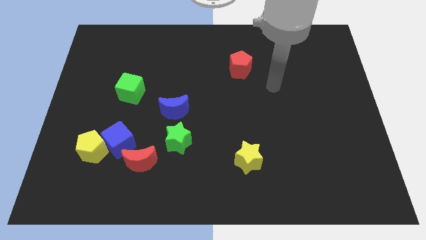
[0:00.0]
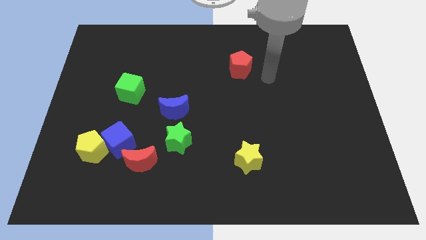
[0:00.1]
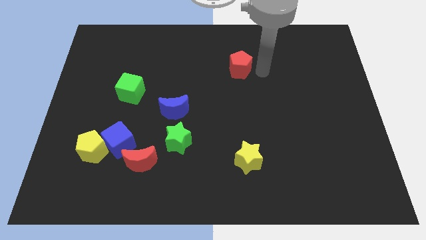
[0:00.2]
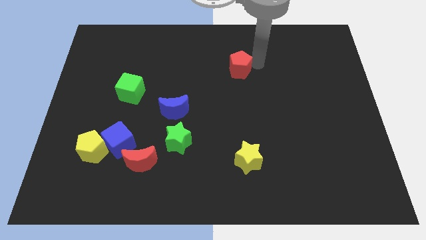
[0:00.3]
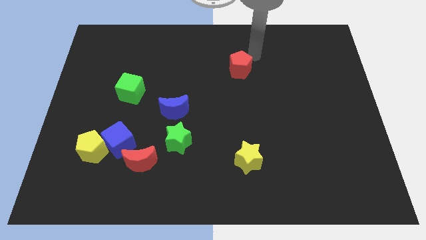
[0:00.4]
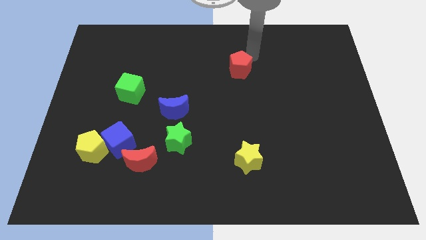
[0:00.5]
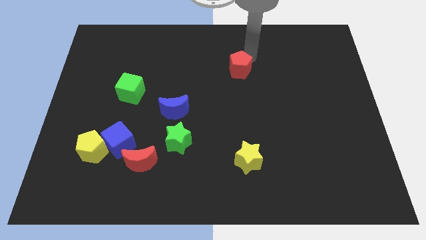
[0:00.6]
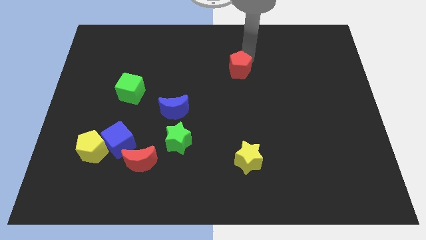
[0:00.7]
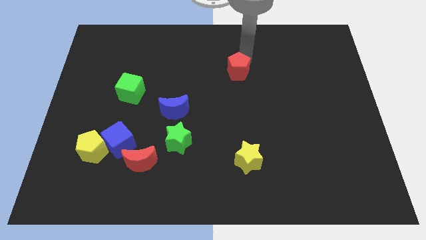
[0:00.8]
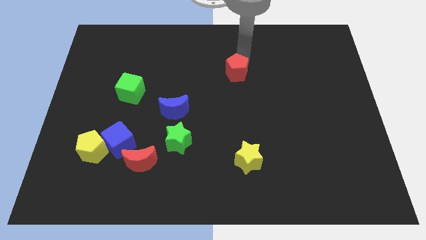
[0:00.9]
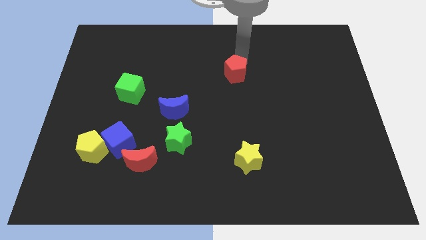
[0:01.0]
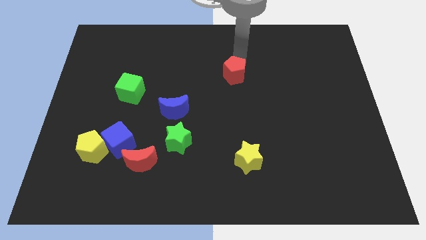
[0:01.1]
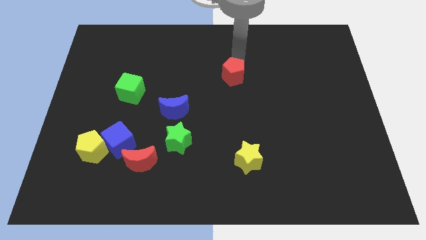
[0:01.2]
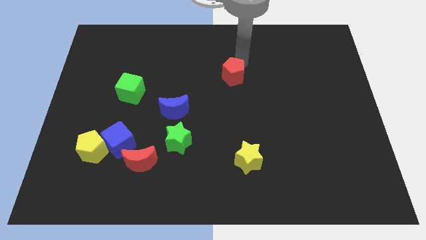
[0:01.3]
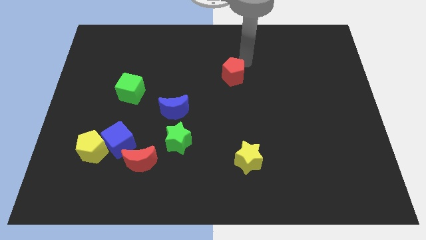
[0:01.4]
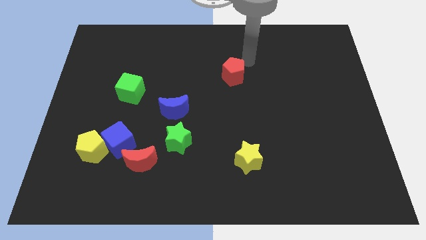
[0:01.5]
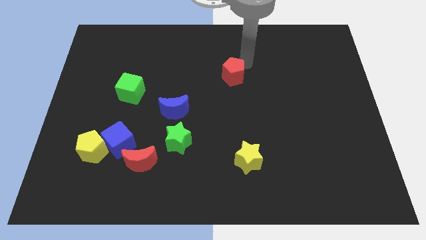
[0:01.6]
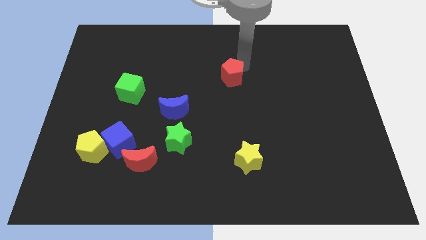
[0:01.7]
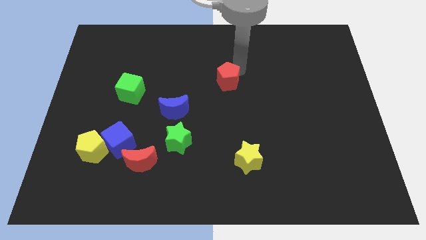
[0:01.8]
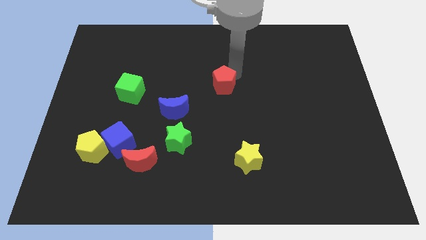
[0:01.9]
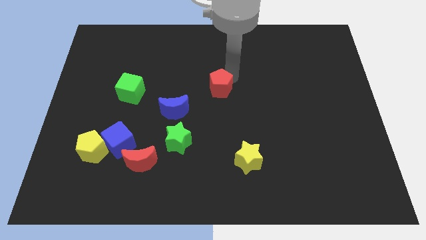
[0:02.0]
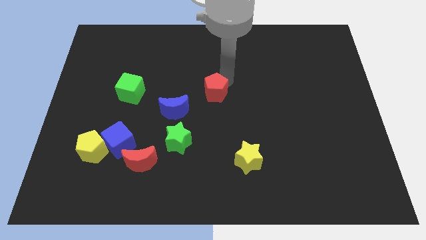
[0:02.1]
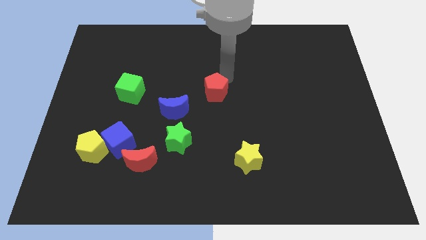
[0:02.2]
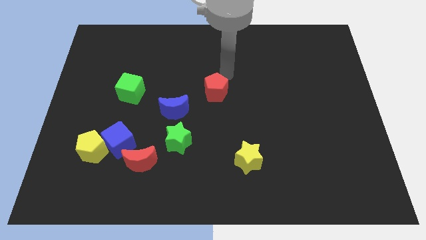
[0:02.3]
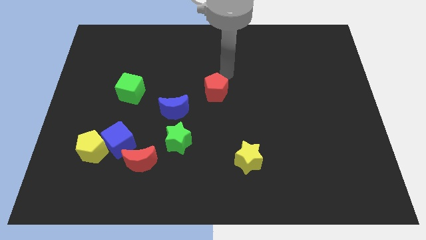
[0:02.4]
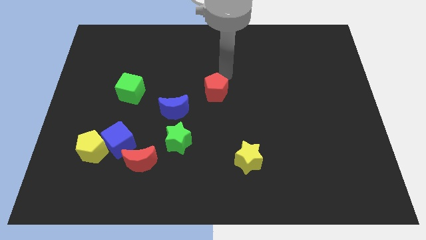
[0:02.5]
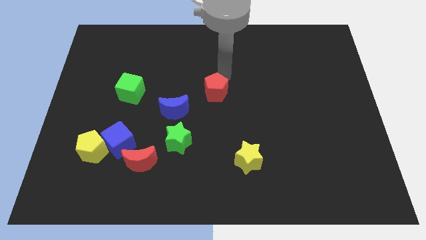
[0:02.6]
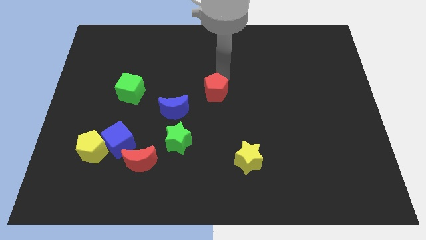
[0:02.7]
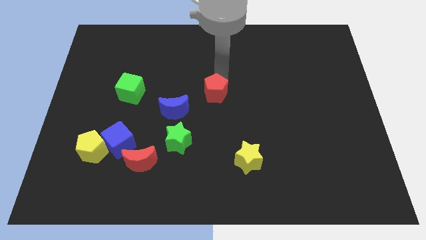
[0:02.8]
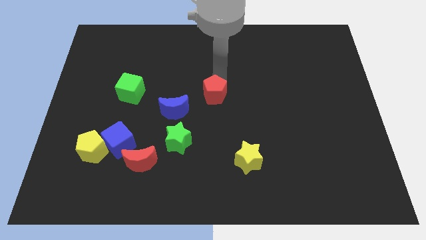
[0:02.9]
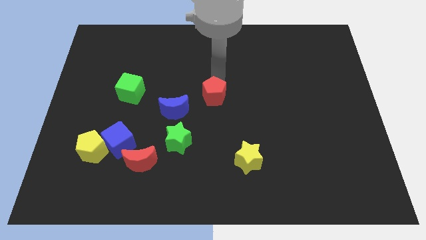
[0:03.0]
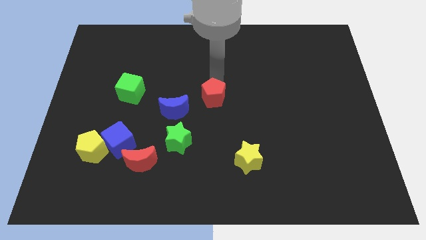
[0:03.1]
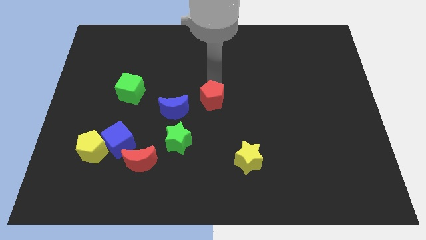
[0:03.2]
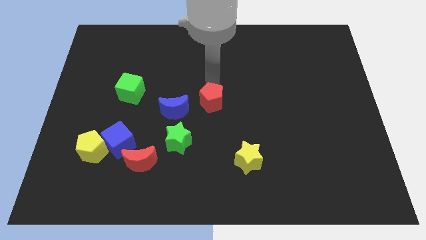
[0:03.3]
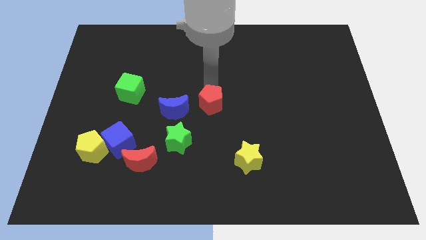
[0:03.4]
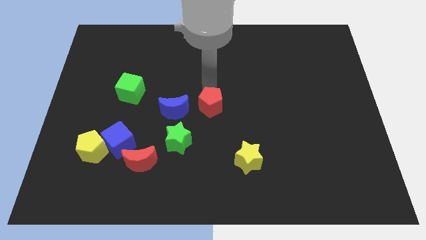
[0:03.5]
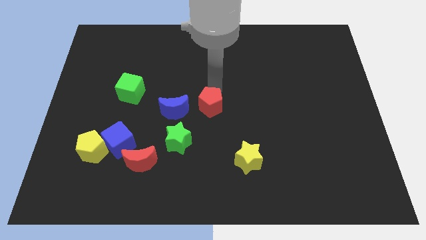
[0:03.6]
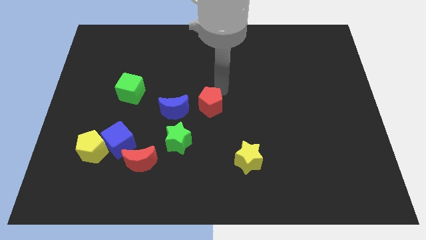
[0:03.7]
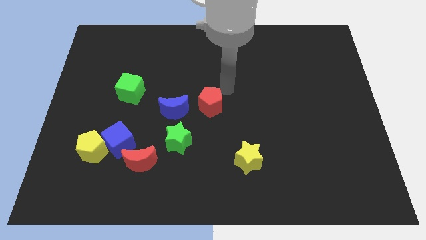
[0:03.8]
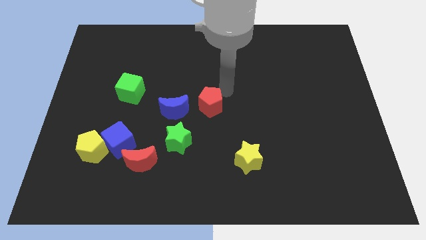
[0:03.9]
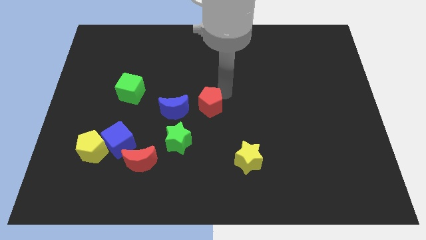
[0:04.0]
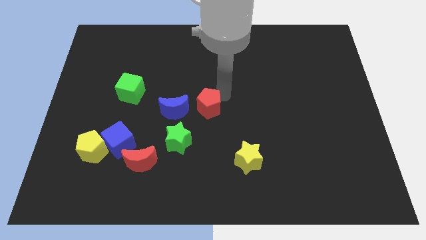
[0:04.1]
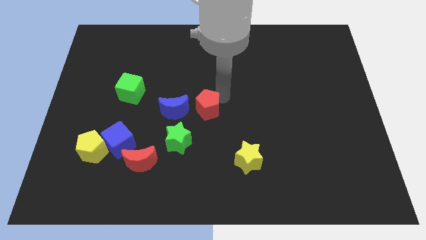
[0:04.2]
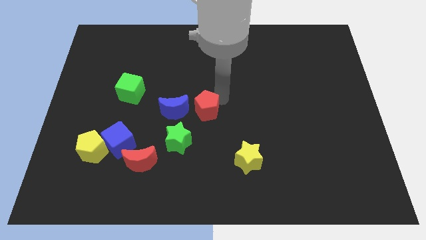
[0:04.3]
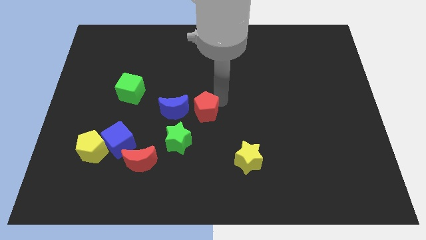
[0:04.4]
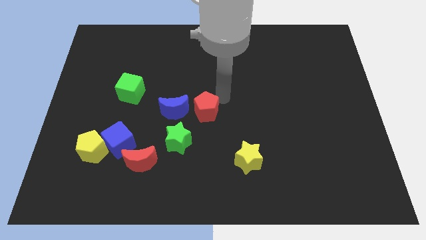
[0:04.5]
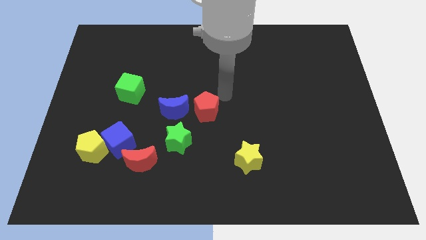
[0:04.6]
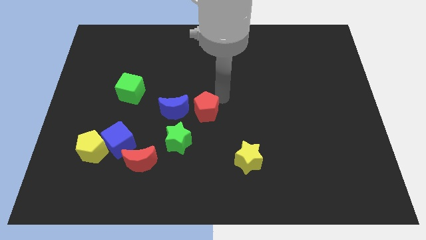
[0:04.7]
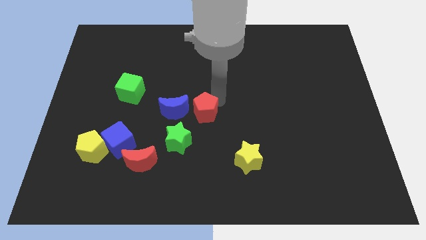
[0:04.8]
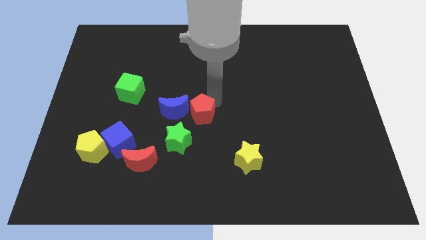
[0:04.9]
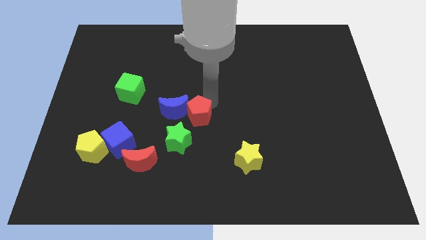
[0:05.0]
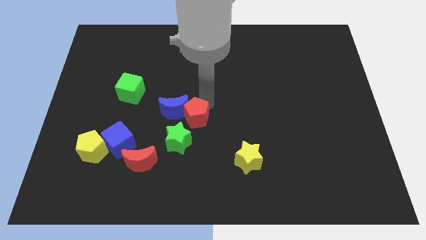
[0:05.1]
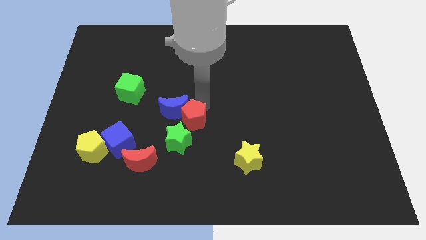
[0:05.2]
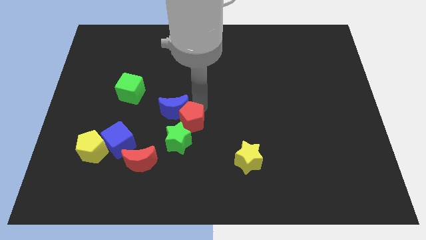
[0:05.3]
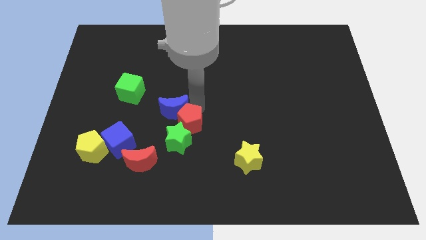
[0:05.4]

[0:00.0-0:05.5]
put the red pentagon next to the green star

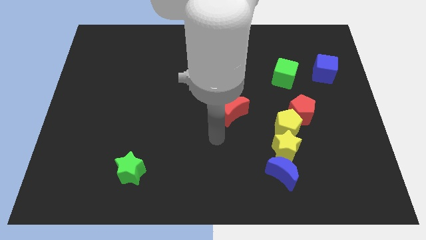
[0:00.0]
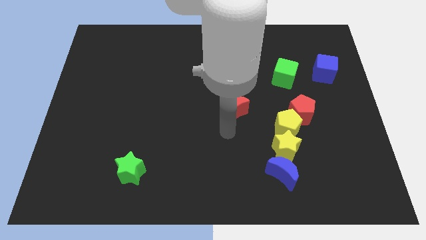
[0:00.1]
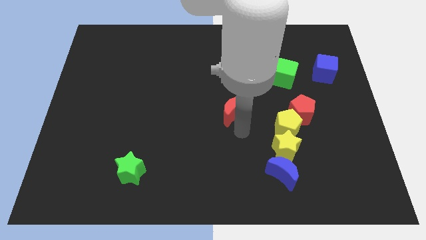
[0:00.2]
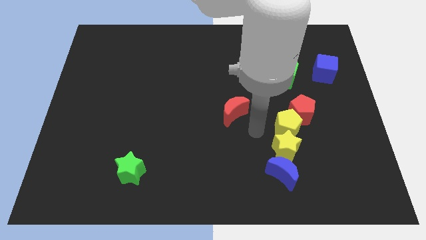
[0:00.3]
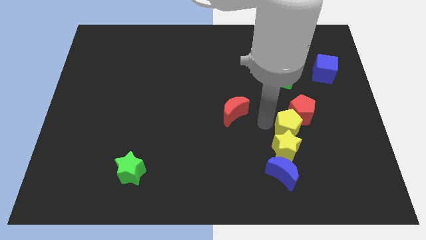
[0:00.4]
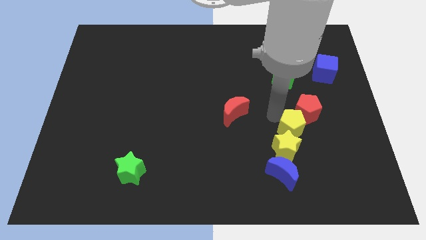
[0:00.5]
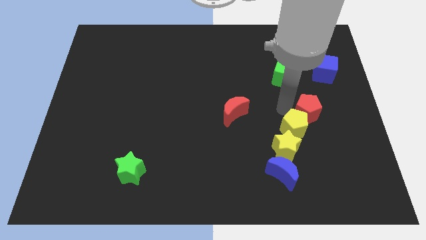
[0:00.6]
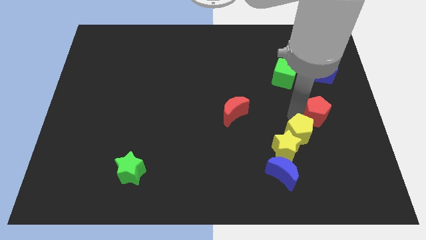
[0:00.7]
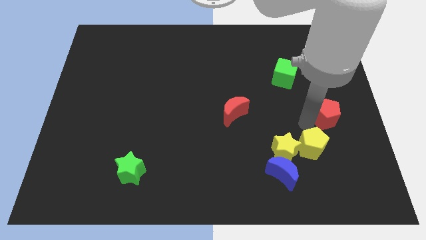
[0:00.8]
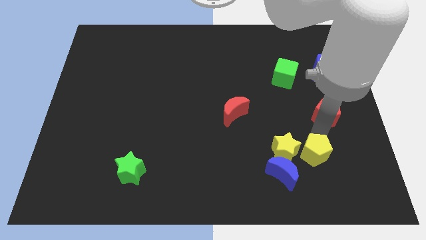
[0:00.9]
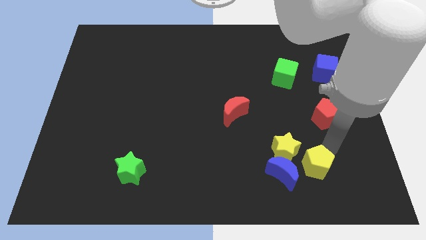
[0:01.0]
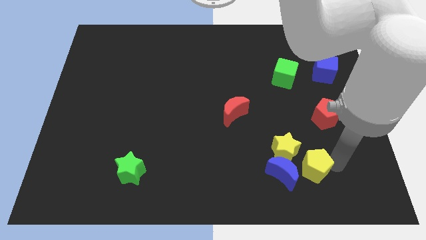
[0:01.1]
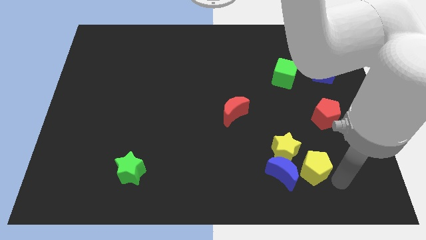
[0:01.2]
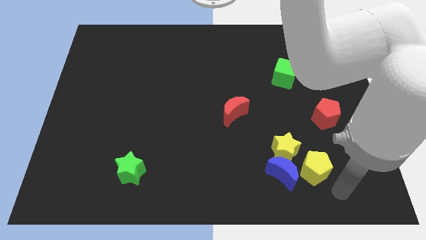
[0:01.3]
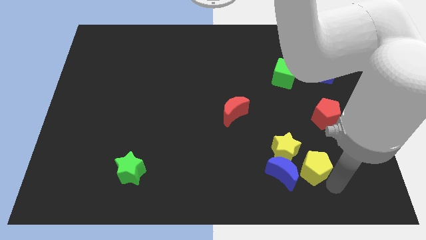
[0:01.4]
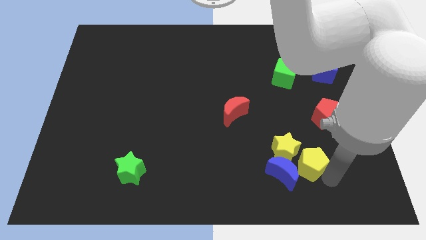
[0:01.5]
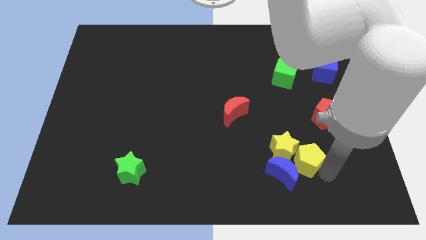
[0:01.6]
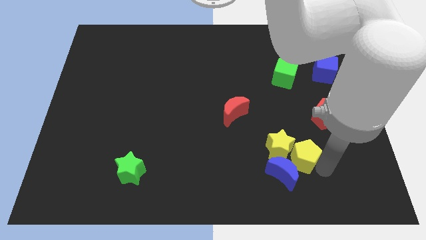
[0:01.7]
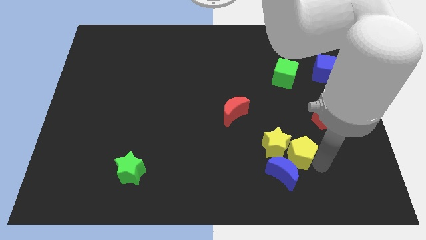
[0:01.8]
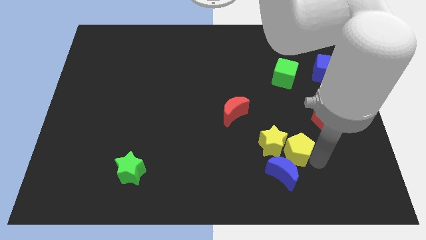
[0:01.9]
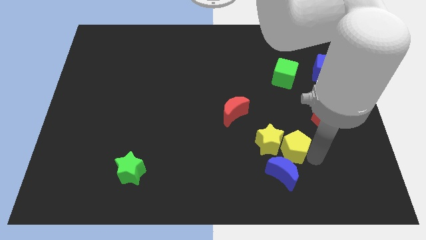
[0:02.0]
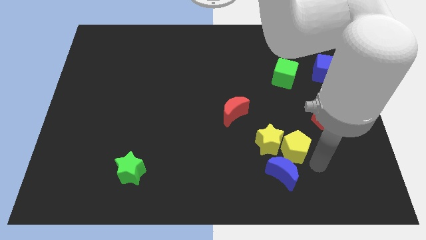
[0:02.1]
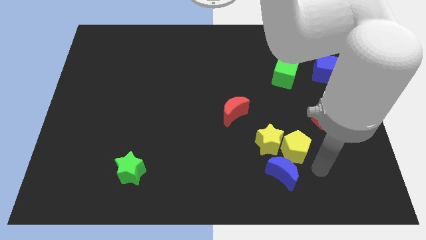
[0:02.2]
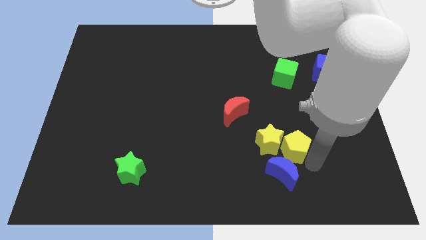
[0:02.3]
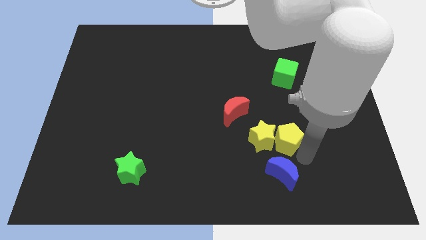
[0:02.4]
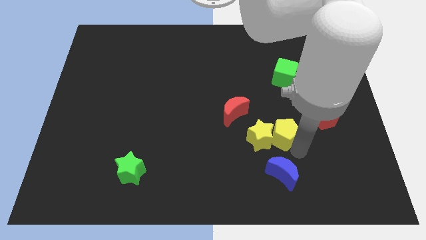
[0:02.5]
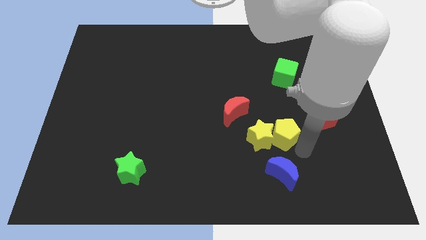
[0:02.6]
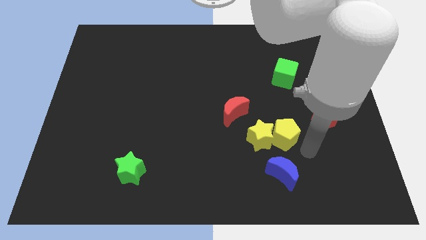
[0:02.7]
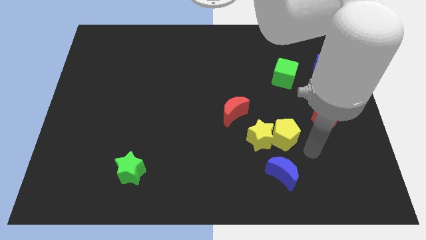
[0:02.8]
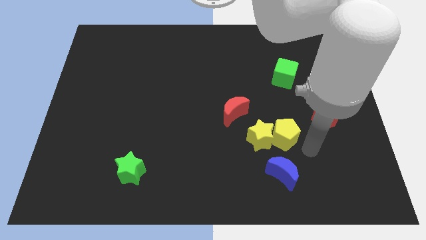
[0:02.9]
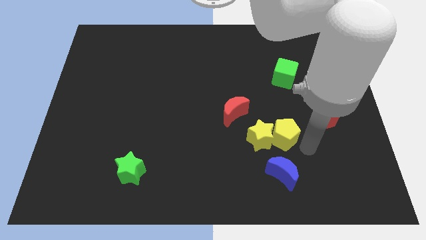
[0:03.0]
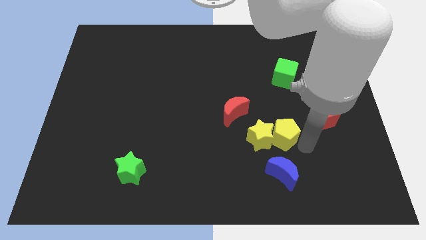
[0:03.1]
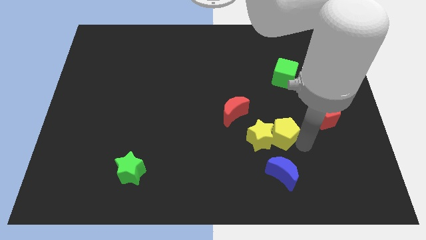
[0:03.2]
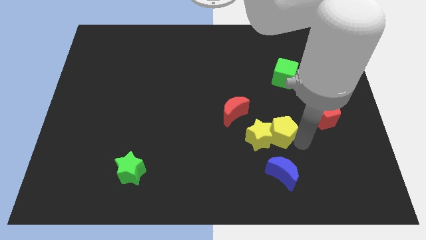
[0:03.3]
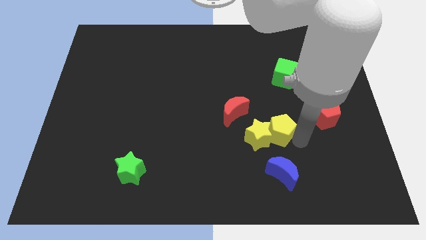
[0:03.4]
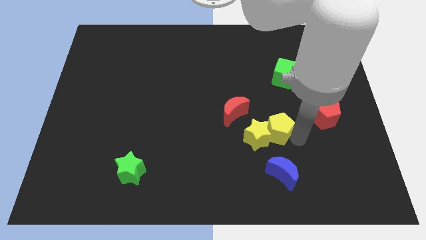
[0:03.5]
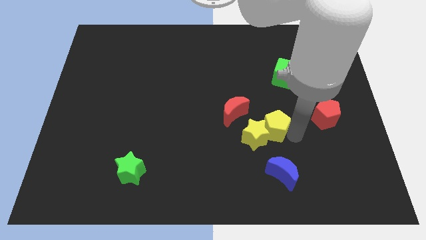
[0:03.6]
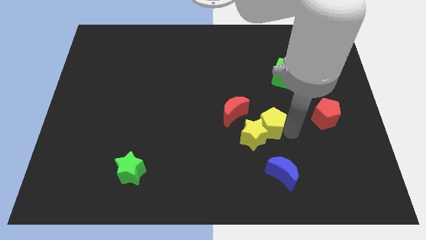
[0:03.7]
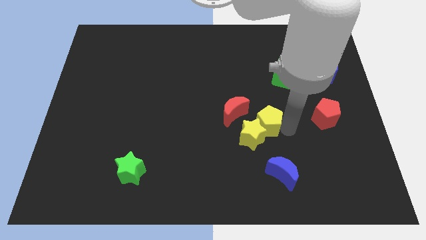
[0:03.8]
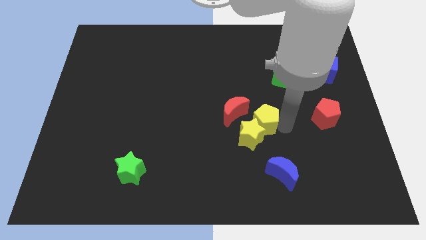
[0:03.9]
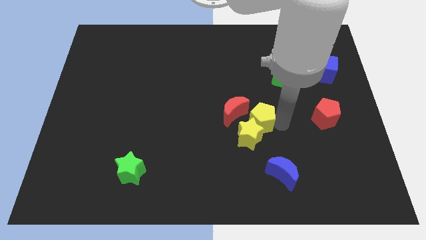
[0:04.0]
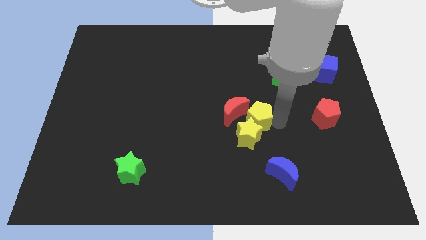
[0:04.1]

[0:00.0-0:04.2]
put the yellow pentagon next to the red moon
